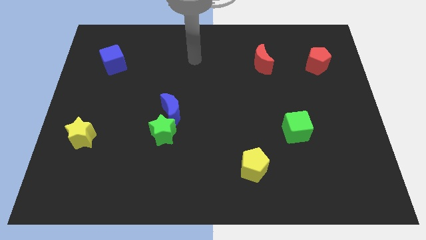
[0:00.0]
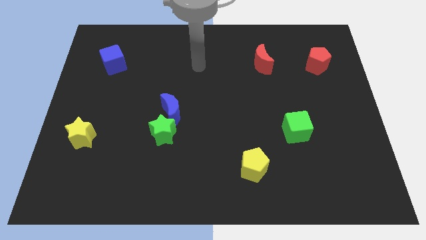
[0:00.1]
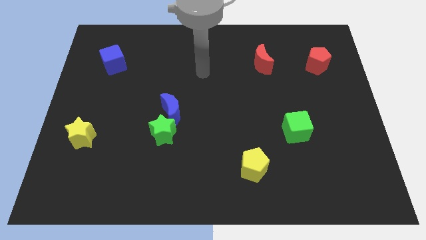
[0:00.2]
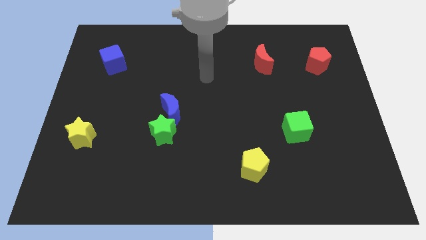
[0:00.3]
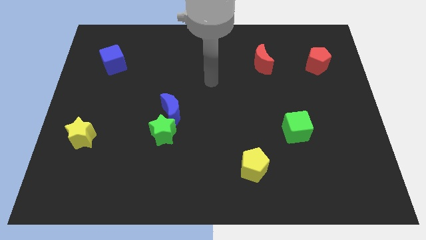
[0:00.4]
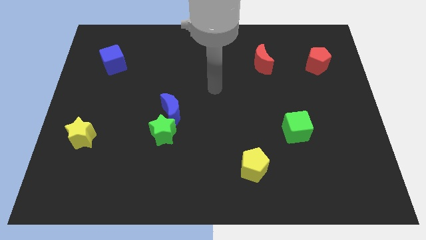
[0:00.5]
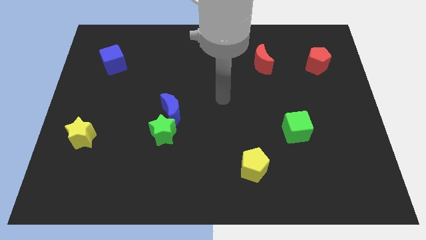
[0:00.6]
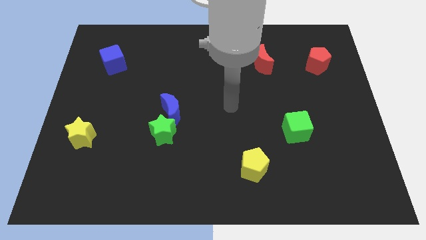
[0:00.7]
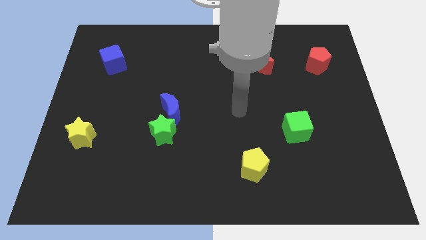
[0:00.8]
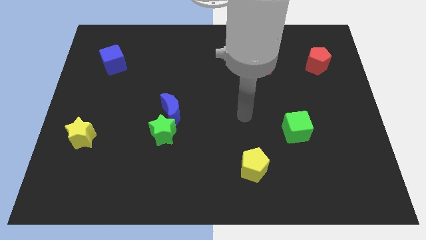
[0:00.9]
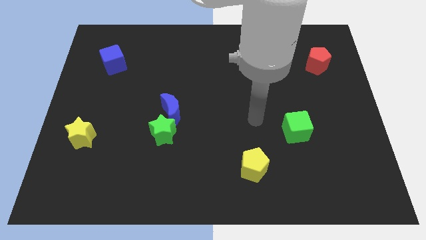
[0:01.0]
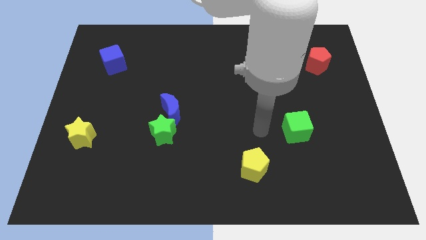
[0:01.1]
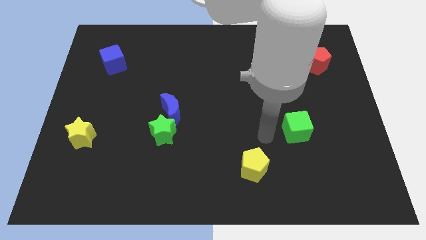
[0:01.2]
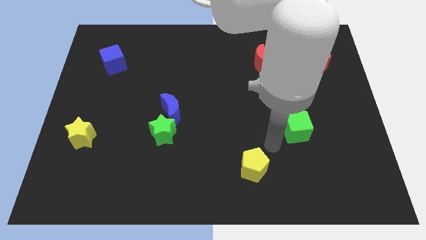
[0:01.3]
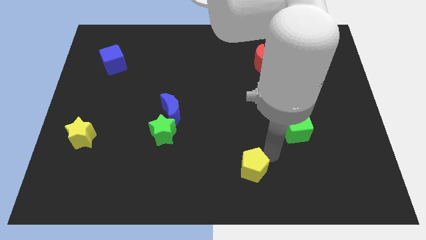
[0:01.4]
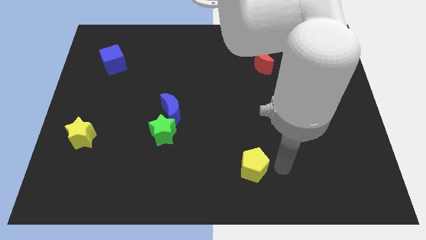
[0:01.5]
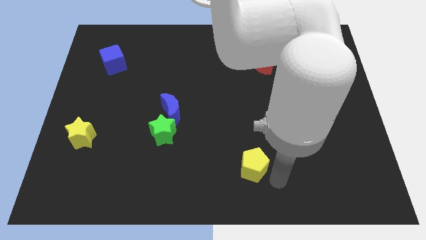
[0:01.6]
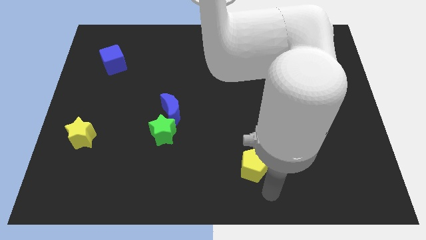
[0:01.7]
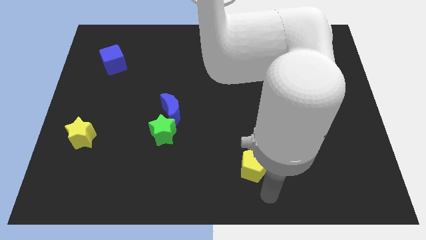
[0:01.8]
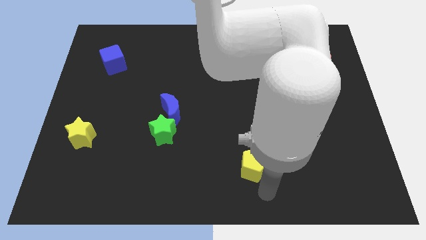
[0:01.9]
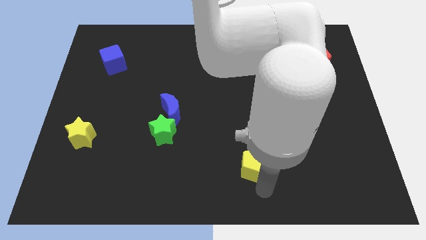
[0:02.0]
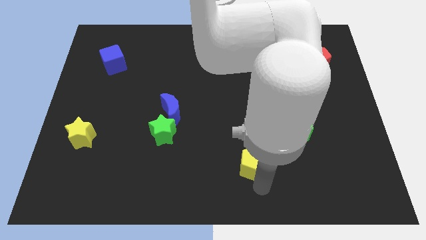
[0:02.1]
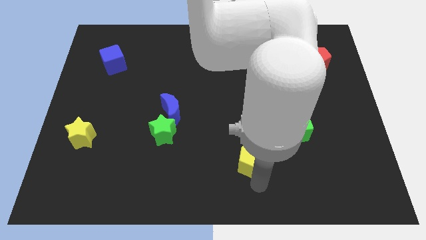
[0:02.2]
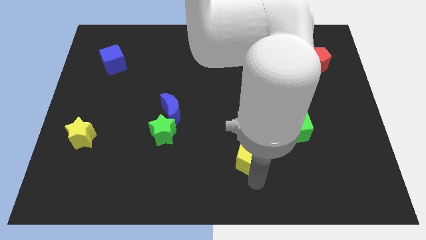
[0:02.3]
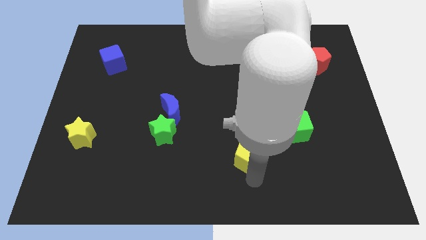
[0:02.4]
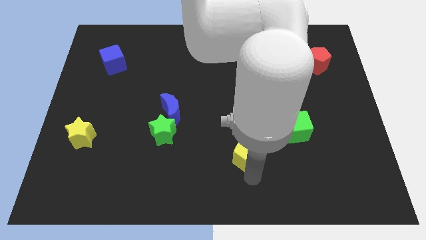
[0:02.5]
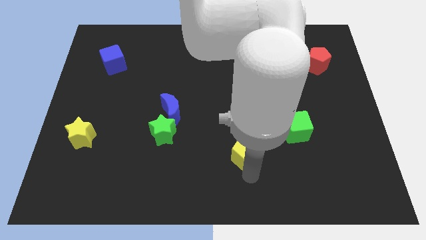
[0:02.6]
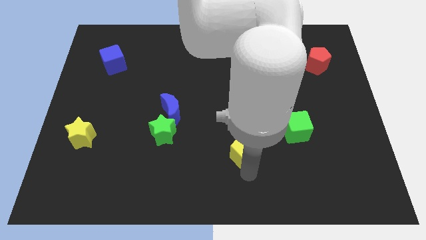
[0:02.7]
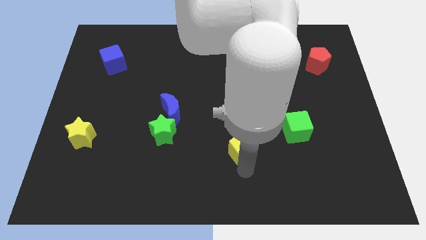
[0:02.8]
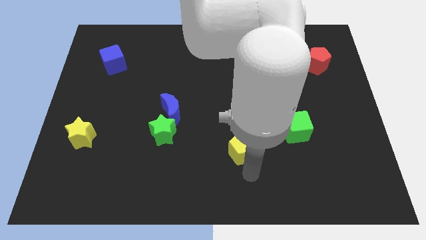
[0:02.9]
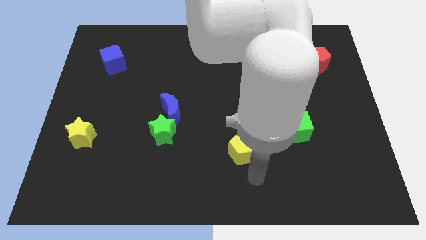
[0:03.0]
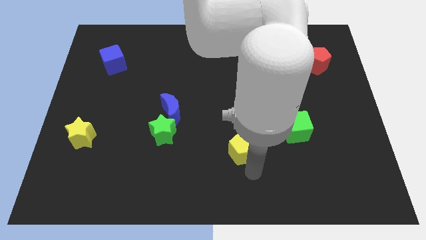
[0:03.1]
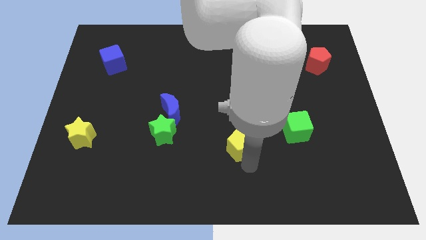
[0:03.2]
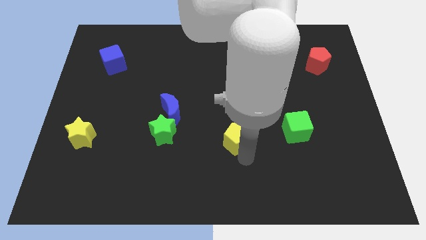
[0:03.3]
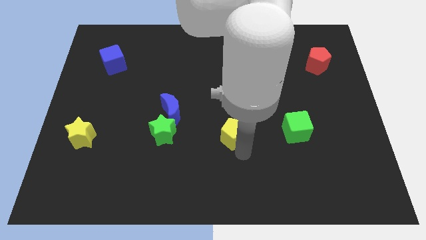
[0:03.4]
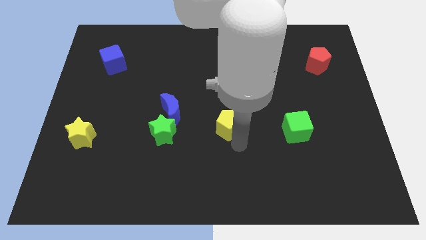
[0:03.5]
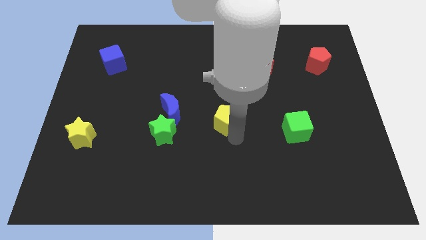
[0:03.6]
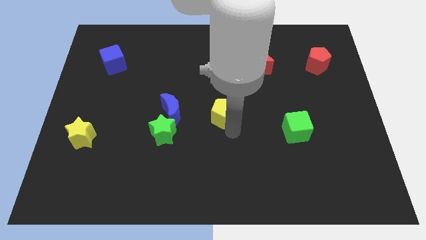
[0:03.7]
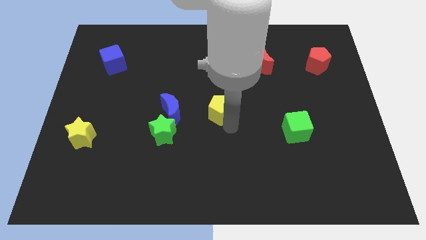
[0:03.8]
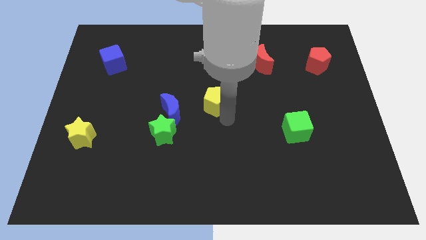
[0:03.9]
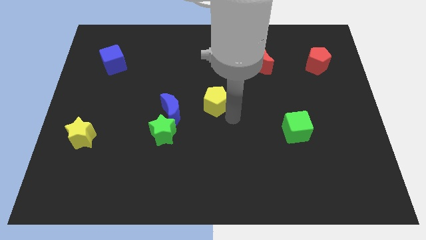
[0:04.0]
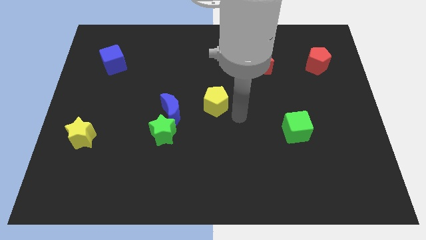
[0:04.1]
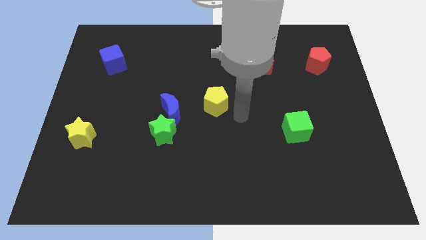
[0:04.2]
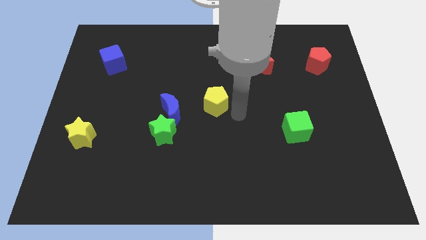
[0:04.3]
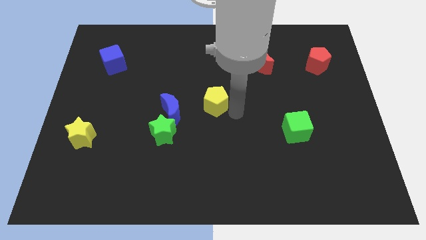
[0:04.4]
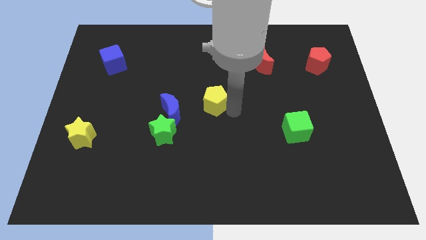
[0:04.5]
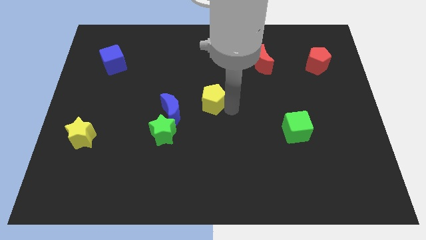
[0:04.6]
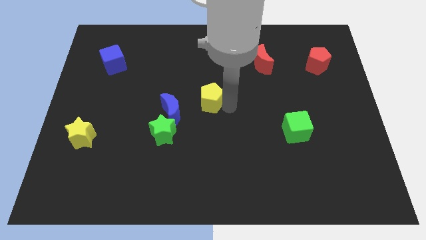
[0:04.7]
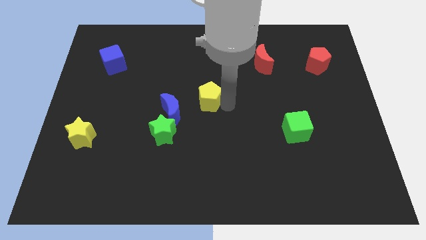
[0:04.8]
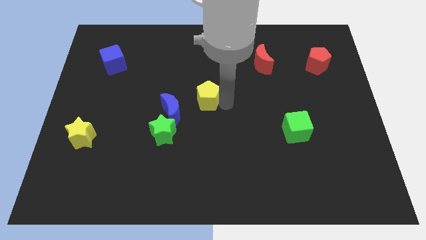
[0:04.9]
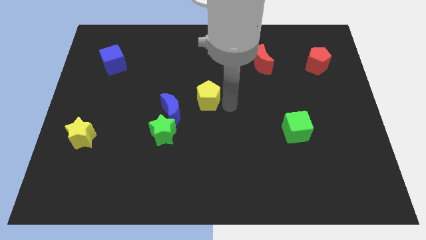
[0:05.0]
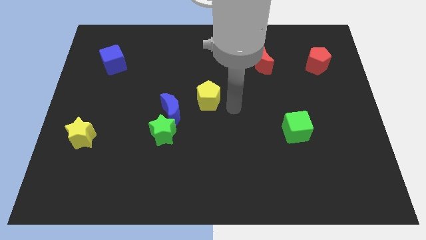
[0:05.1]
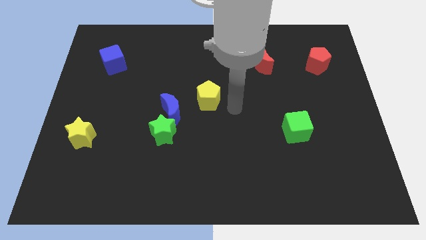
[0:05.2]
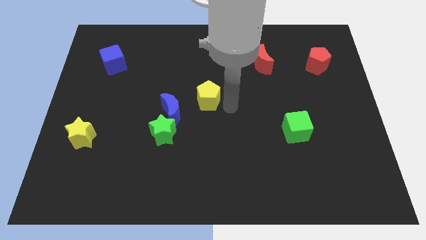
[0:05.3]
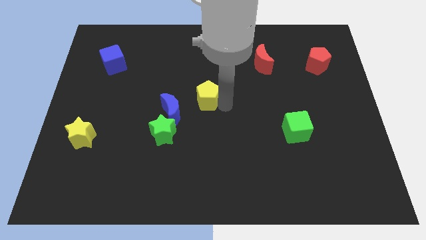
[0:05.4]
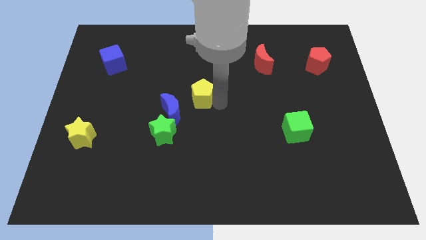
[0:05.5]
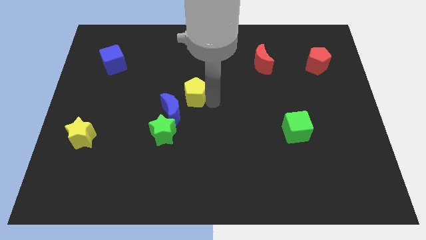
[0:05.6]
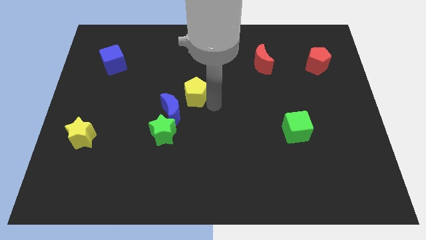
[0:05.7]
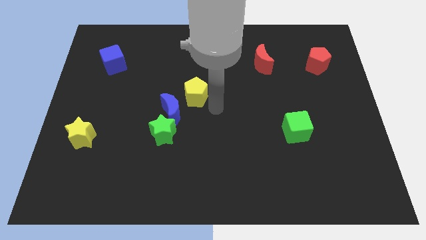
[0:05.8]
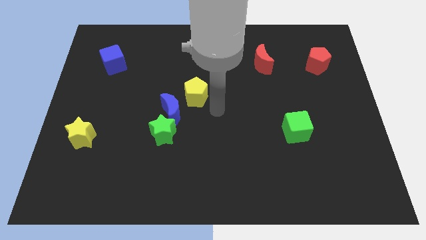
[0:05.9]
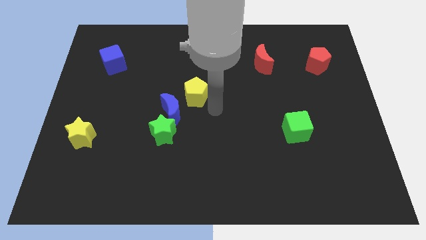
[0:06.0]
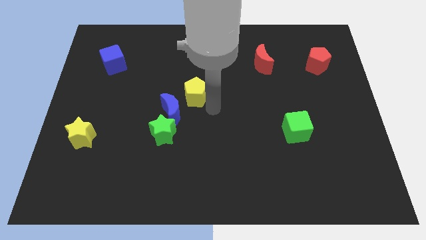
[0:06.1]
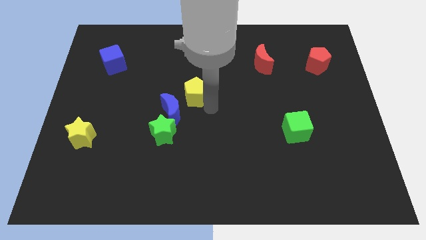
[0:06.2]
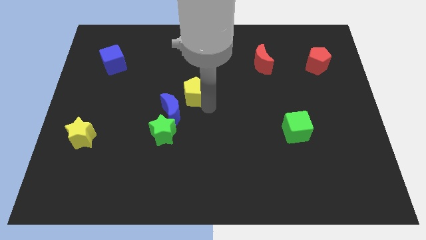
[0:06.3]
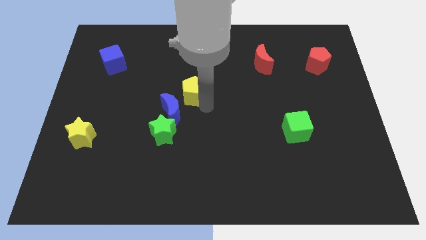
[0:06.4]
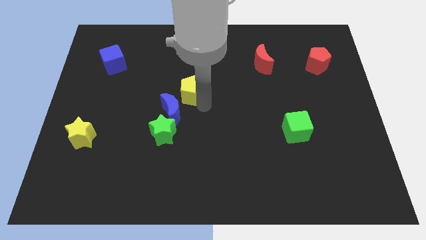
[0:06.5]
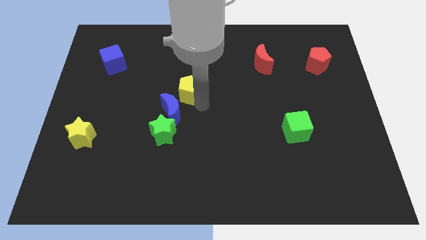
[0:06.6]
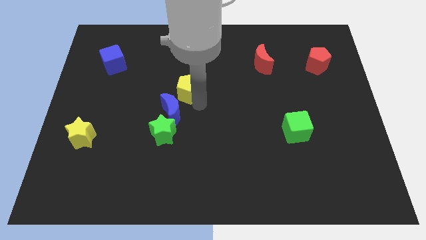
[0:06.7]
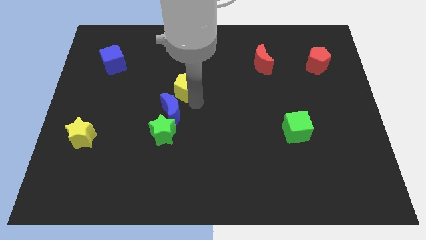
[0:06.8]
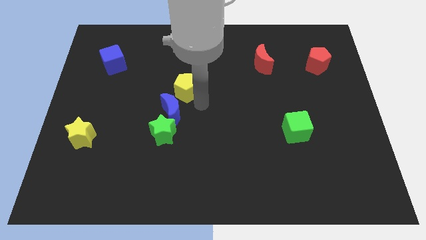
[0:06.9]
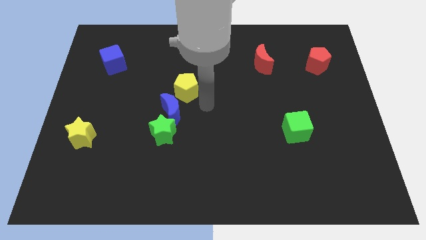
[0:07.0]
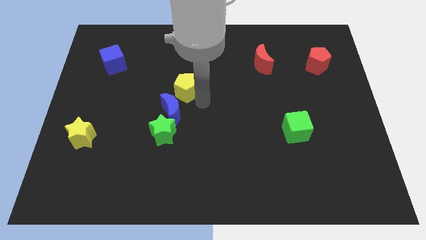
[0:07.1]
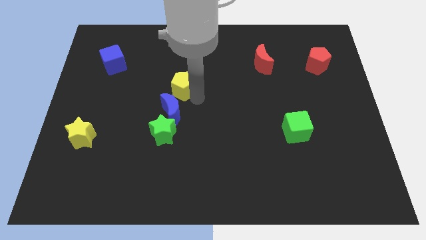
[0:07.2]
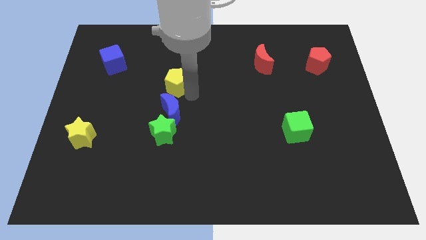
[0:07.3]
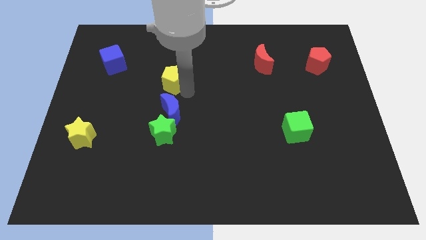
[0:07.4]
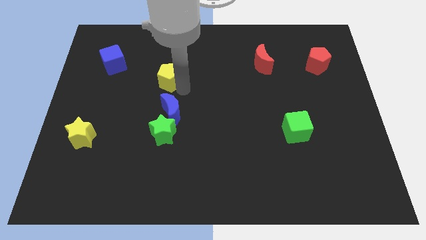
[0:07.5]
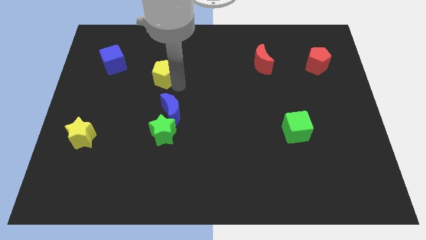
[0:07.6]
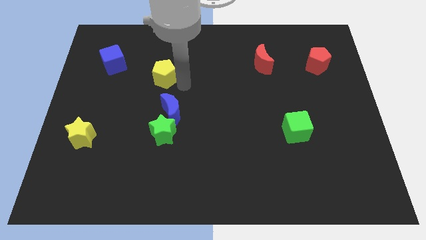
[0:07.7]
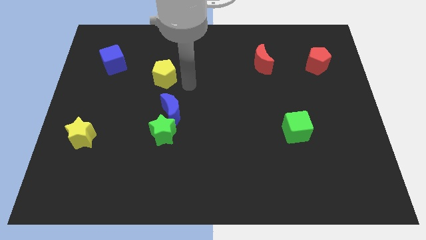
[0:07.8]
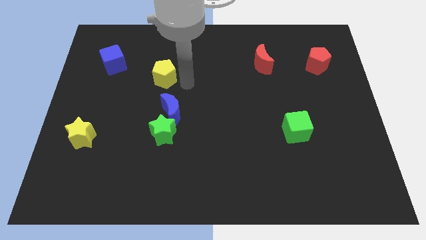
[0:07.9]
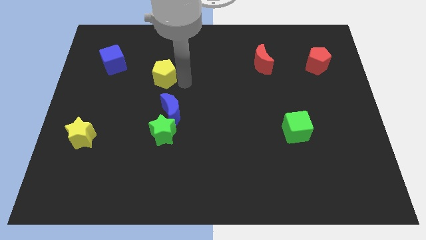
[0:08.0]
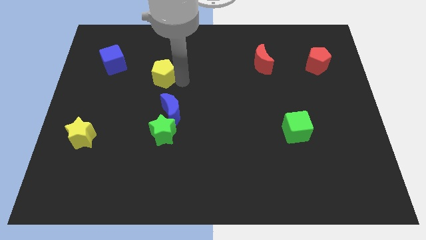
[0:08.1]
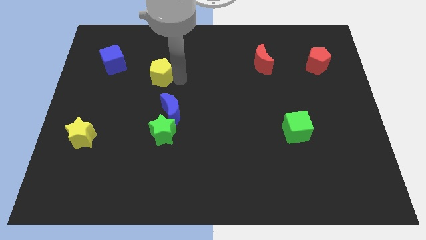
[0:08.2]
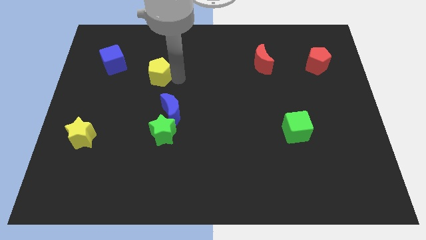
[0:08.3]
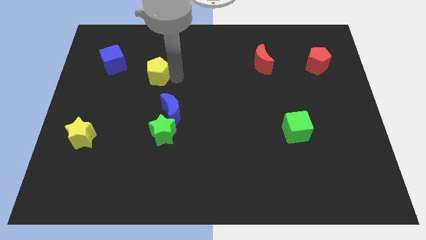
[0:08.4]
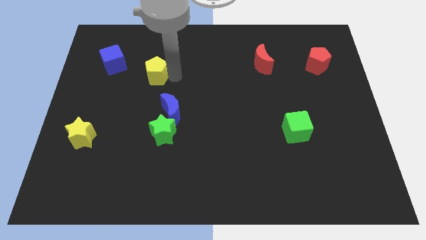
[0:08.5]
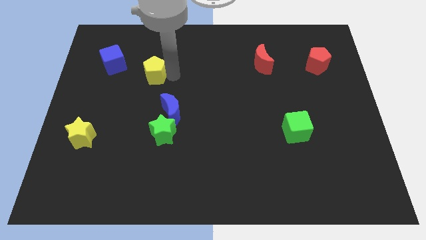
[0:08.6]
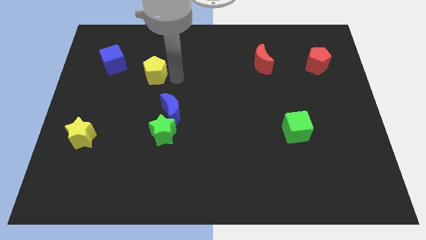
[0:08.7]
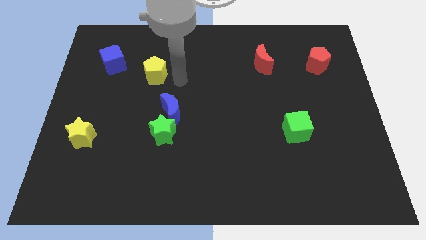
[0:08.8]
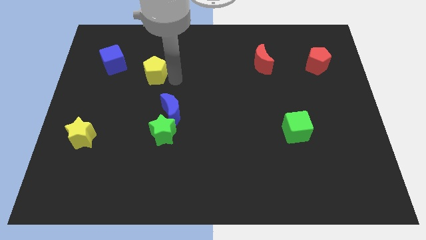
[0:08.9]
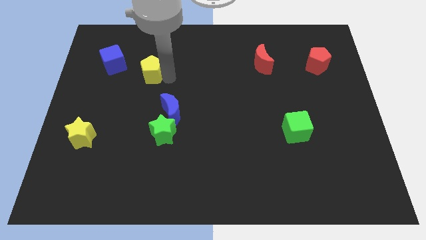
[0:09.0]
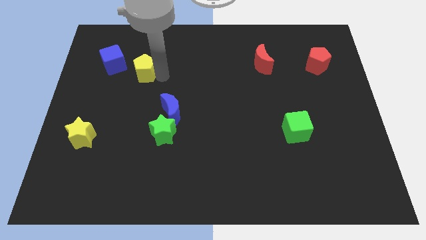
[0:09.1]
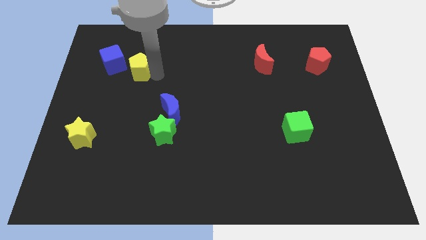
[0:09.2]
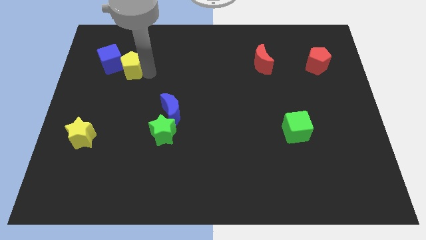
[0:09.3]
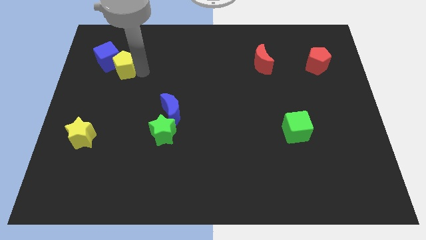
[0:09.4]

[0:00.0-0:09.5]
move the yellow pentagon next to the blue cube
